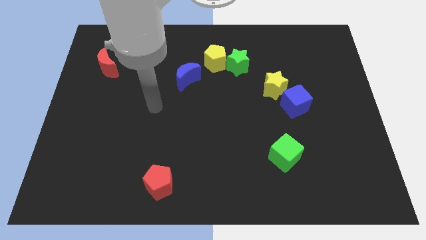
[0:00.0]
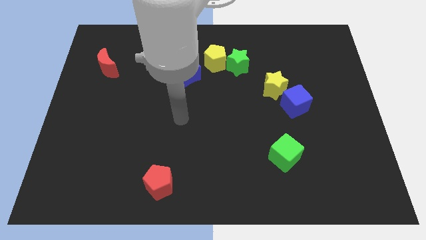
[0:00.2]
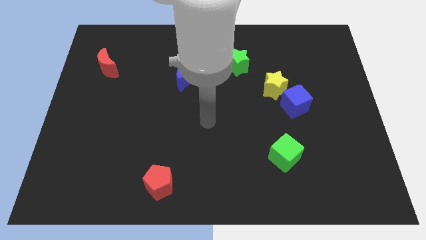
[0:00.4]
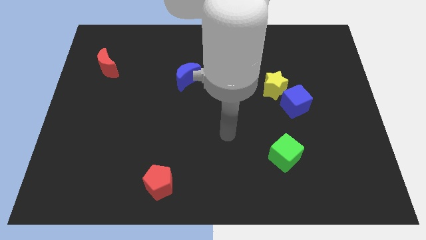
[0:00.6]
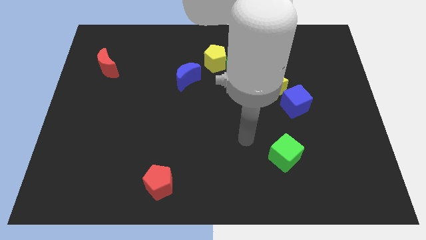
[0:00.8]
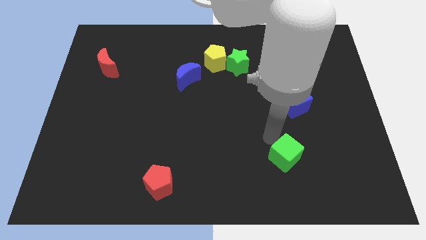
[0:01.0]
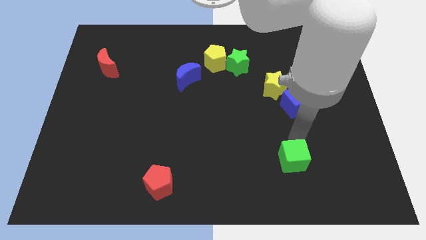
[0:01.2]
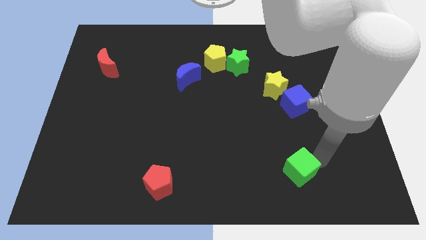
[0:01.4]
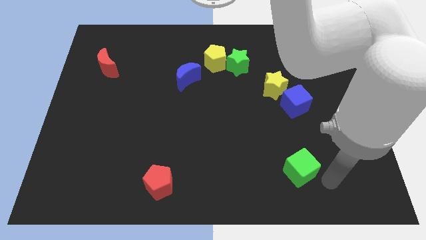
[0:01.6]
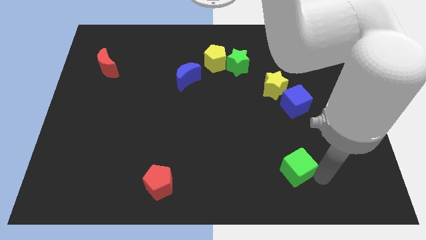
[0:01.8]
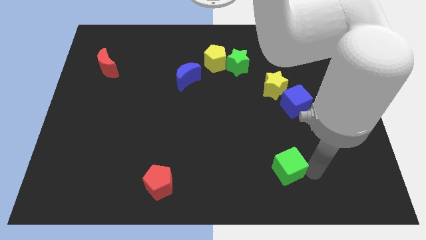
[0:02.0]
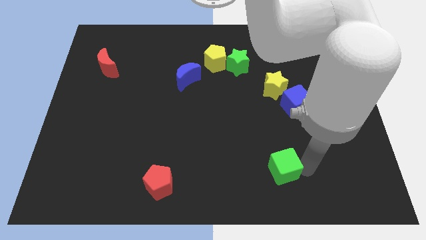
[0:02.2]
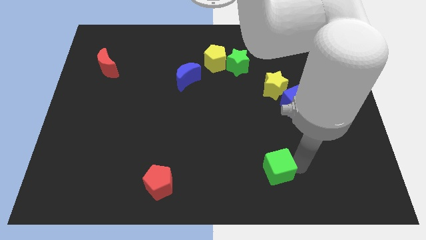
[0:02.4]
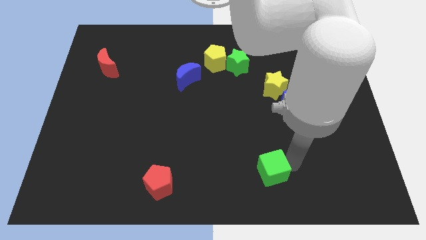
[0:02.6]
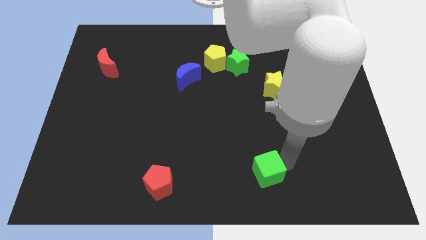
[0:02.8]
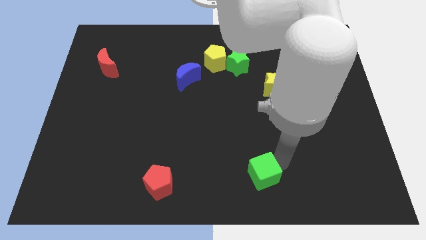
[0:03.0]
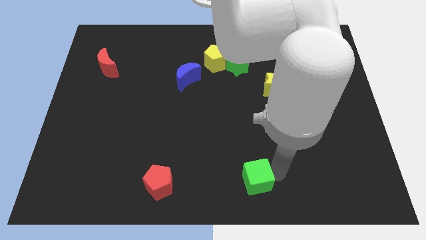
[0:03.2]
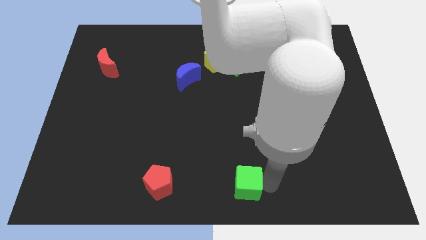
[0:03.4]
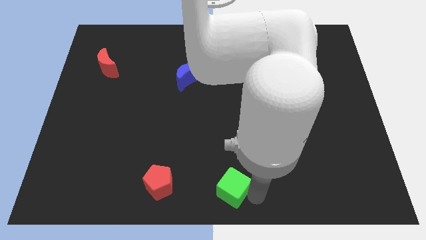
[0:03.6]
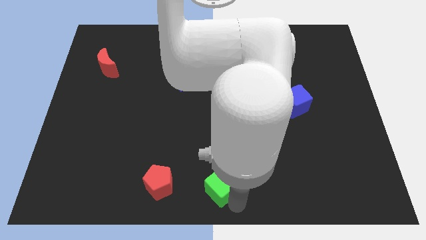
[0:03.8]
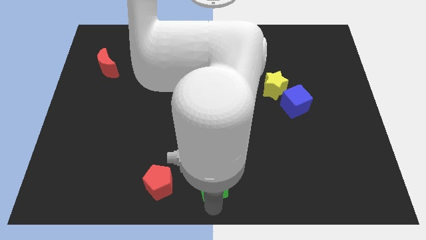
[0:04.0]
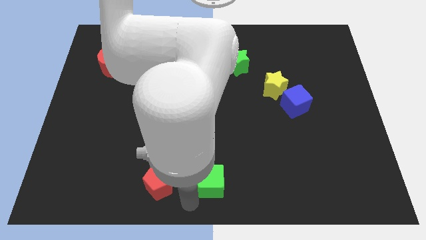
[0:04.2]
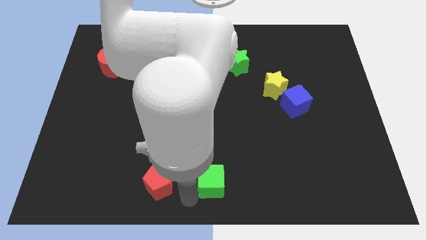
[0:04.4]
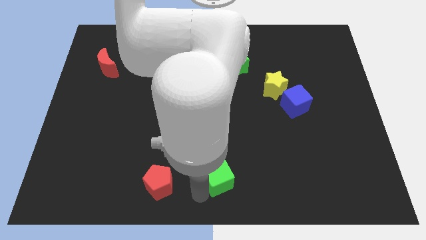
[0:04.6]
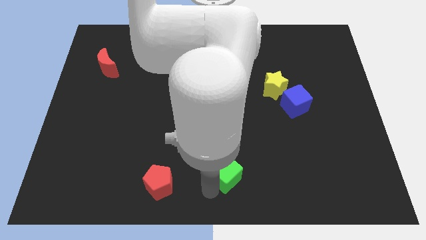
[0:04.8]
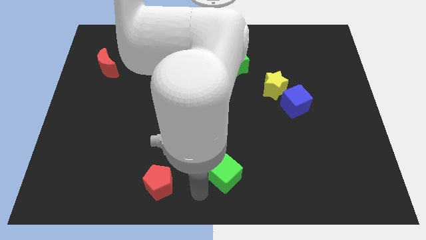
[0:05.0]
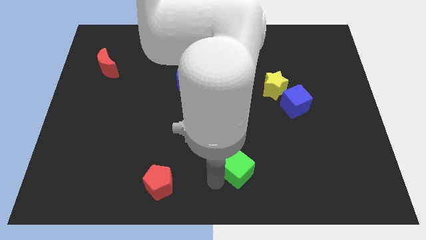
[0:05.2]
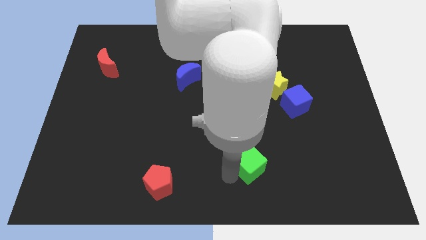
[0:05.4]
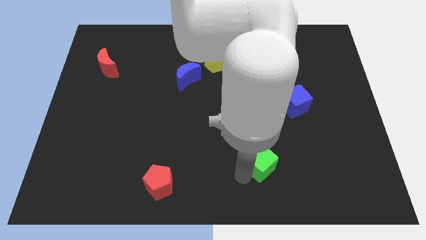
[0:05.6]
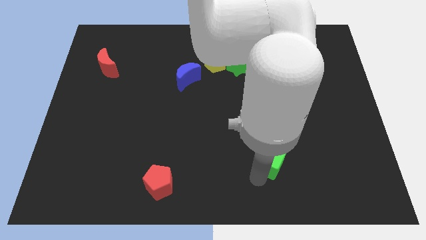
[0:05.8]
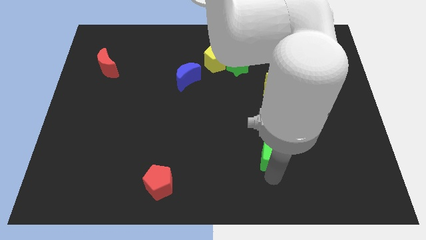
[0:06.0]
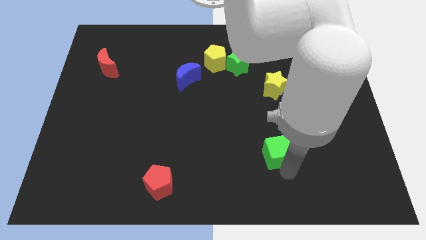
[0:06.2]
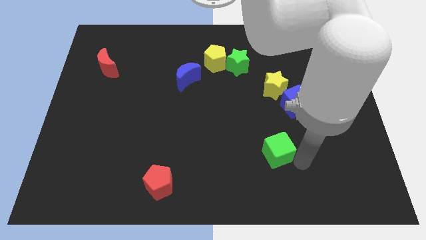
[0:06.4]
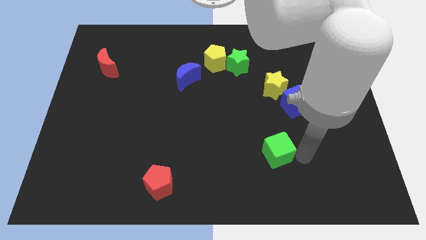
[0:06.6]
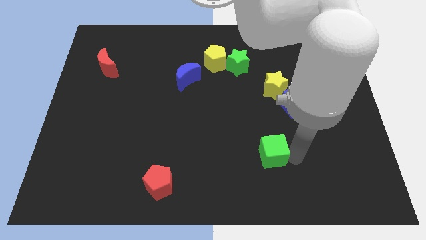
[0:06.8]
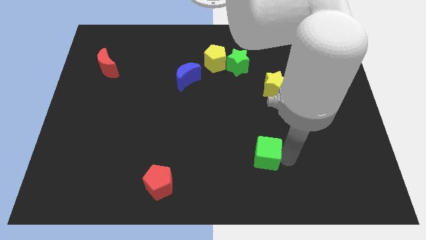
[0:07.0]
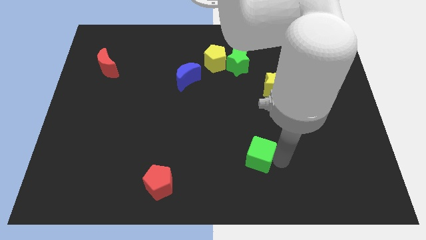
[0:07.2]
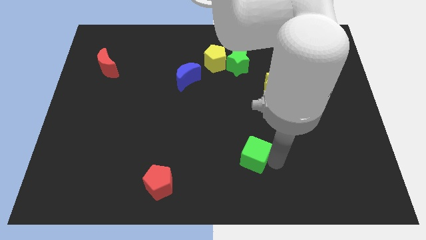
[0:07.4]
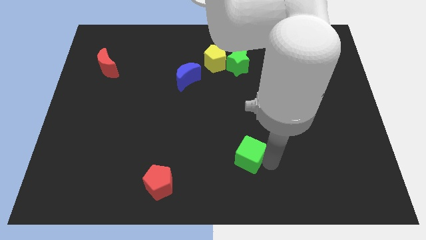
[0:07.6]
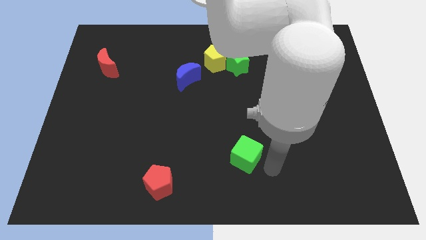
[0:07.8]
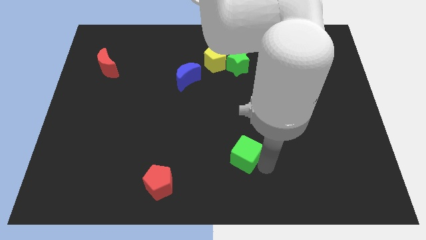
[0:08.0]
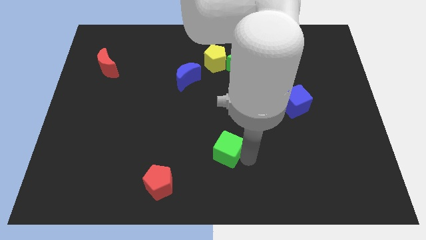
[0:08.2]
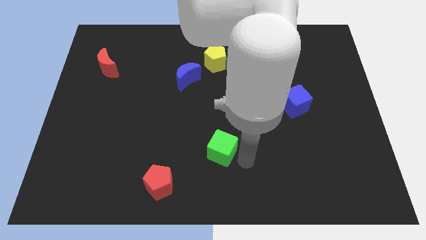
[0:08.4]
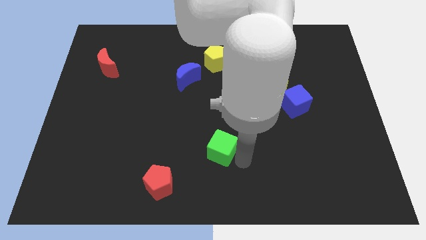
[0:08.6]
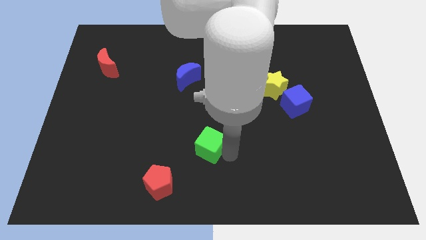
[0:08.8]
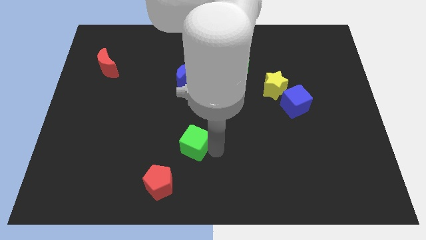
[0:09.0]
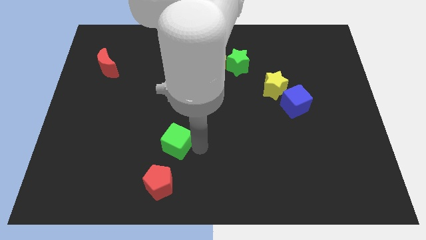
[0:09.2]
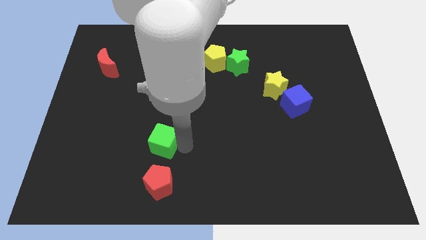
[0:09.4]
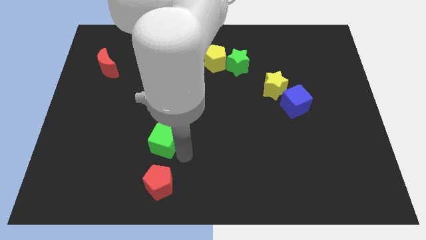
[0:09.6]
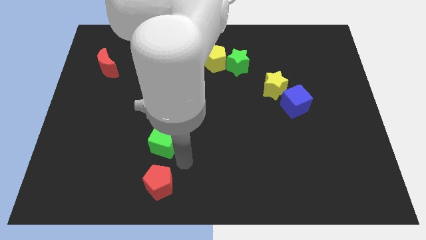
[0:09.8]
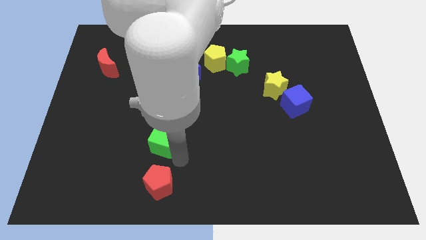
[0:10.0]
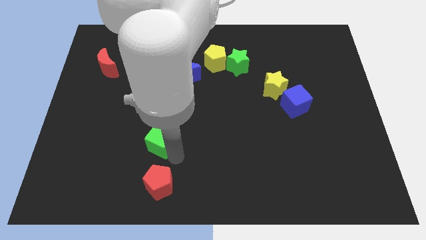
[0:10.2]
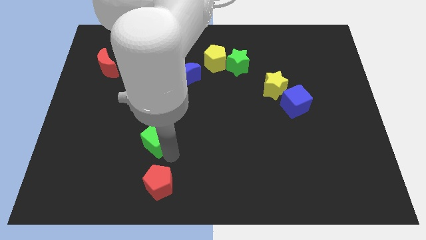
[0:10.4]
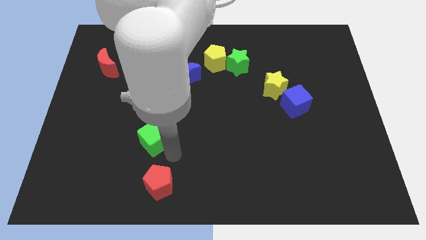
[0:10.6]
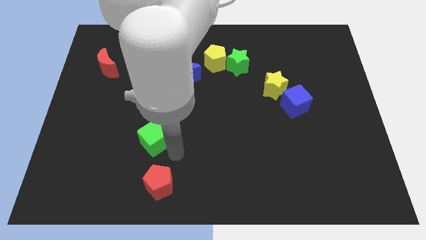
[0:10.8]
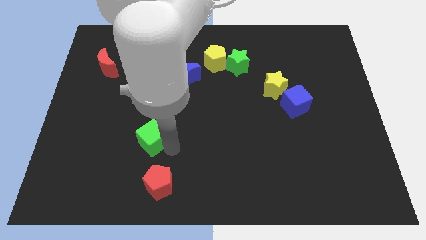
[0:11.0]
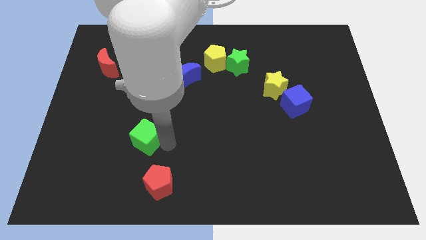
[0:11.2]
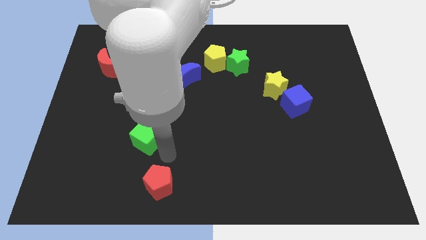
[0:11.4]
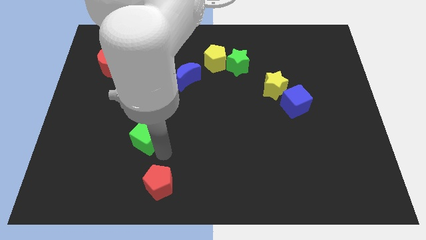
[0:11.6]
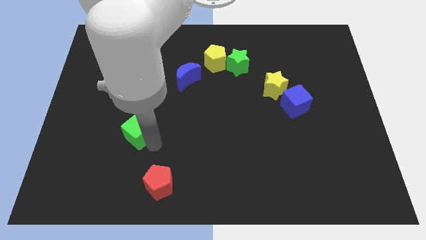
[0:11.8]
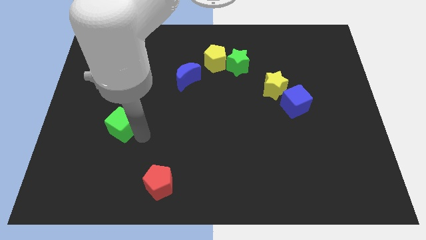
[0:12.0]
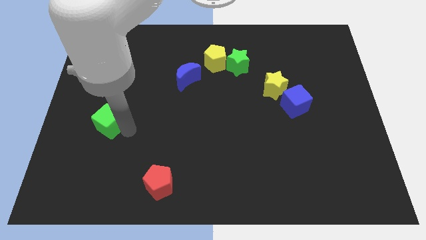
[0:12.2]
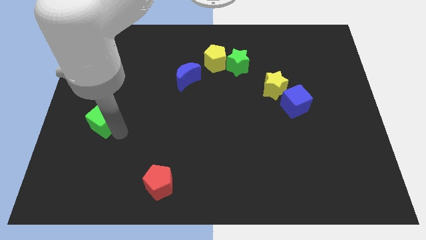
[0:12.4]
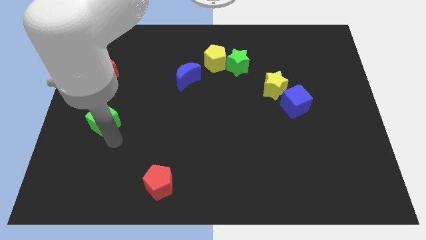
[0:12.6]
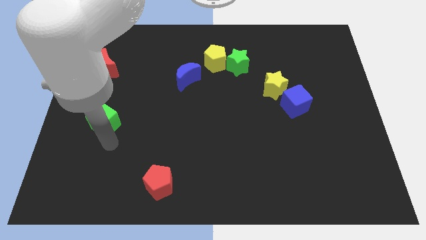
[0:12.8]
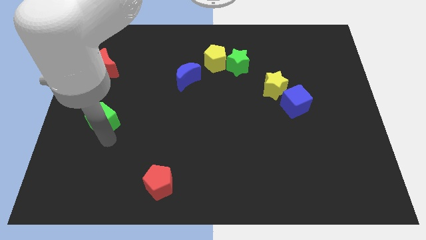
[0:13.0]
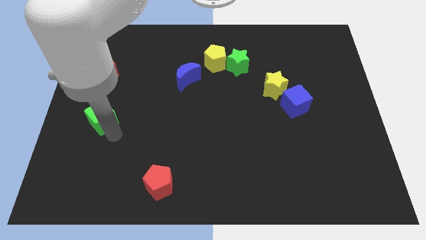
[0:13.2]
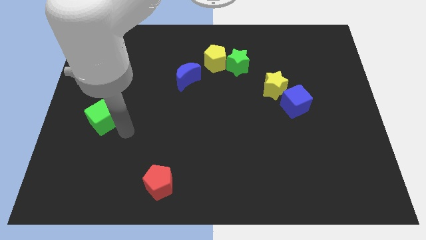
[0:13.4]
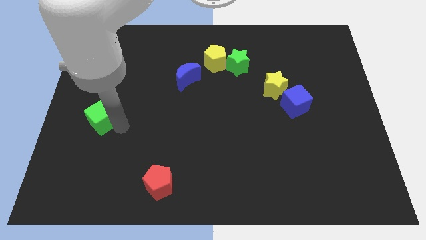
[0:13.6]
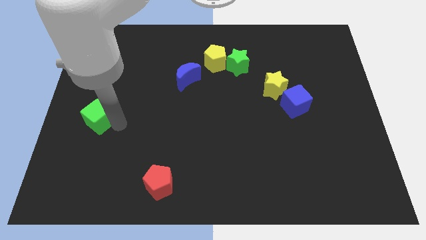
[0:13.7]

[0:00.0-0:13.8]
slide the green cube to the left side
